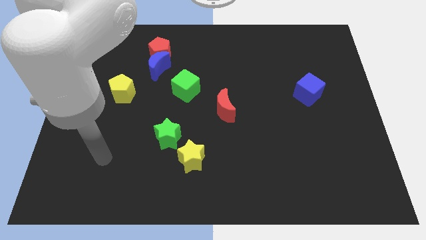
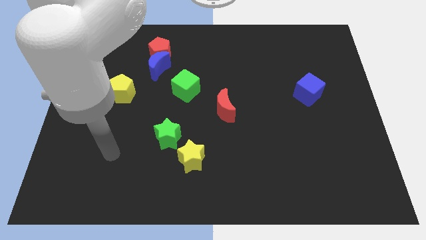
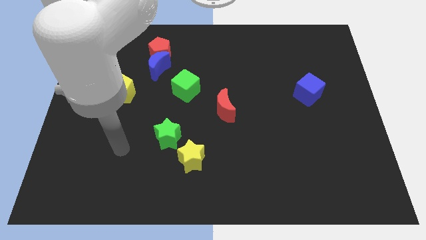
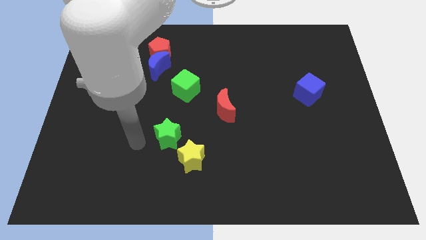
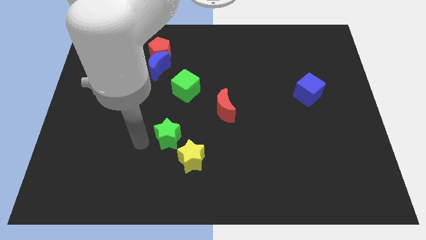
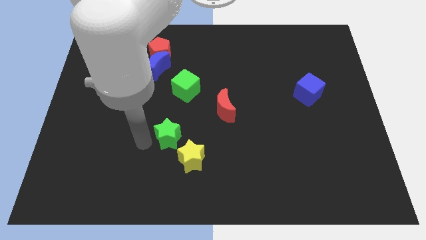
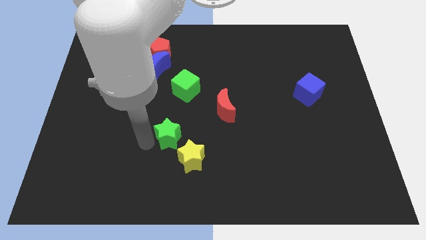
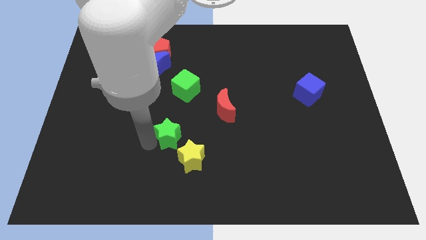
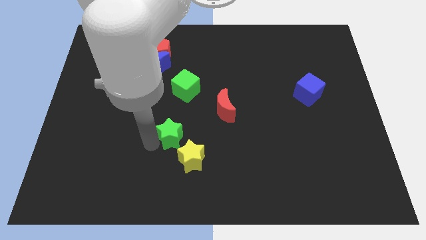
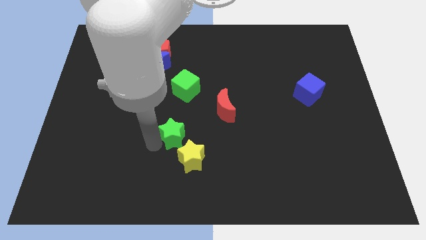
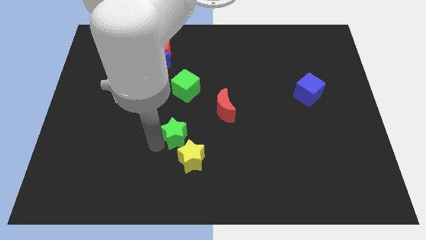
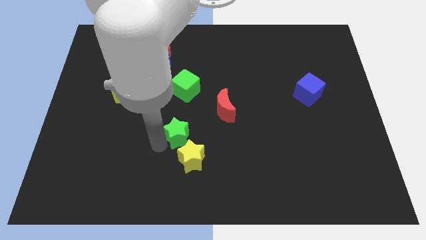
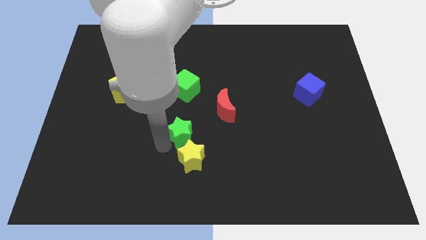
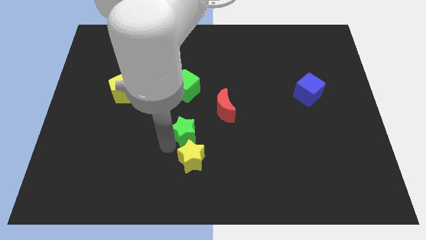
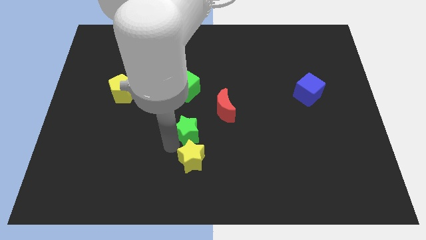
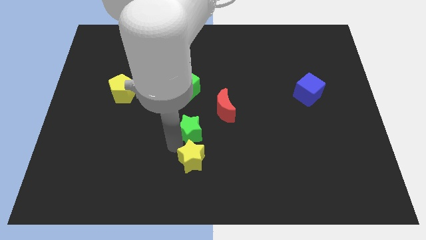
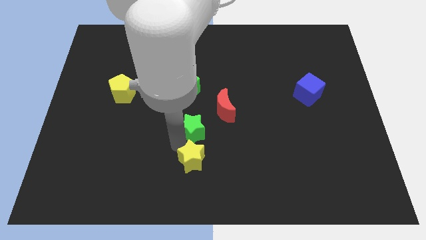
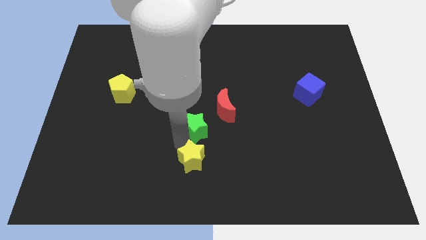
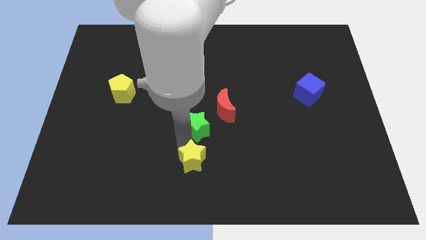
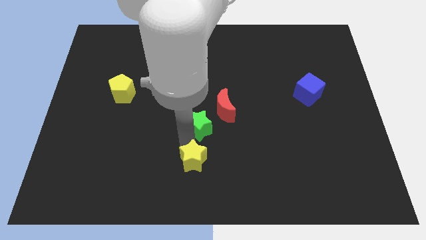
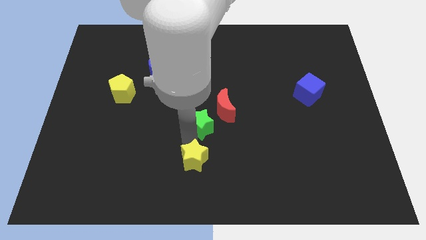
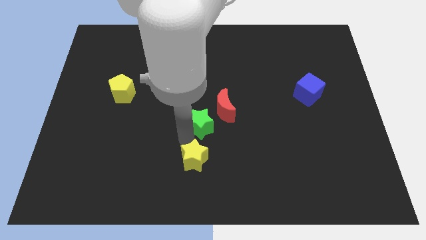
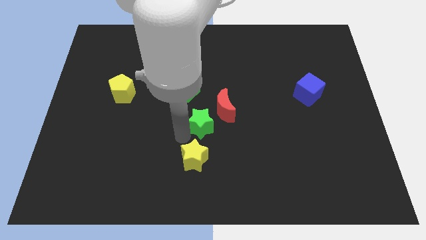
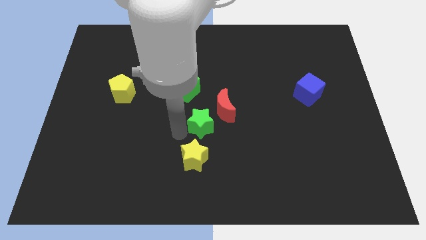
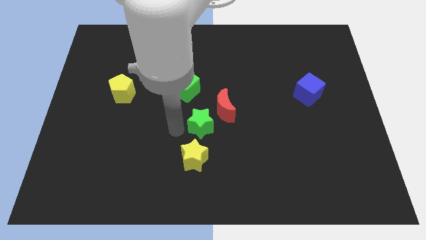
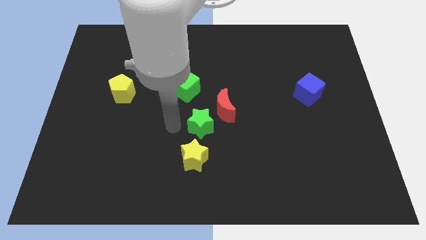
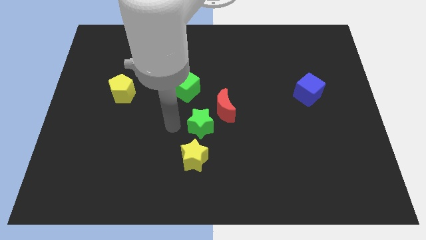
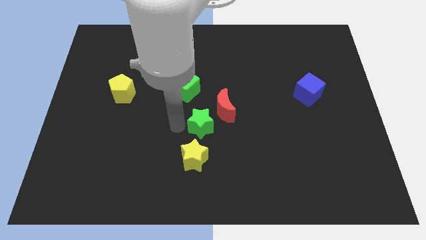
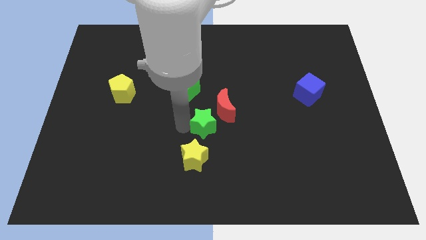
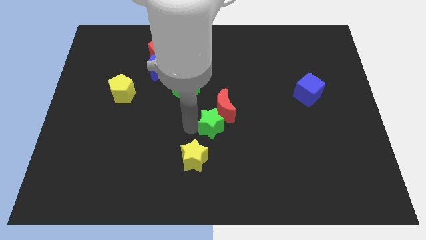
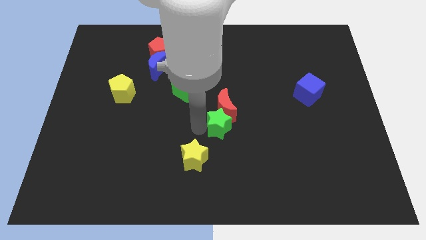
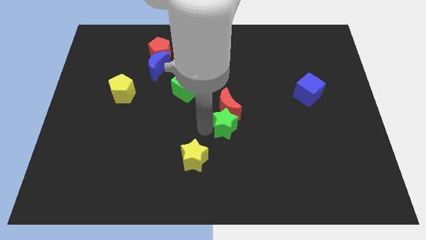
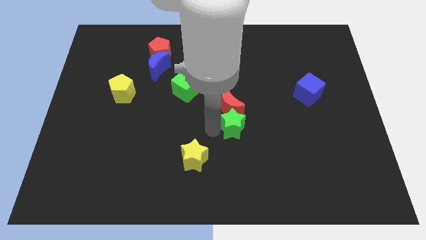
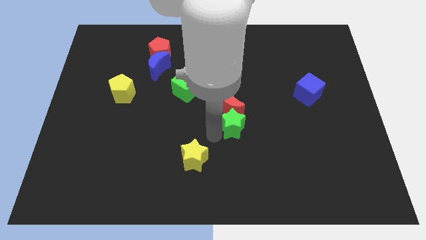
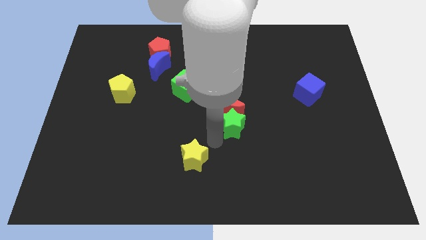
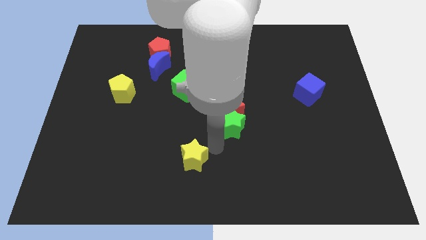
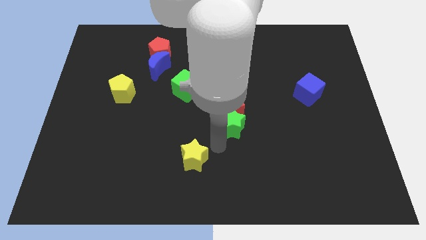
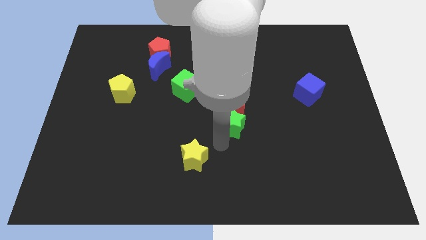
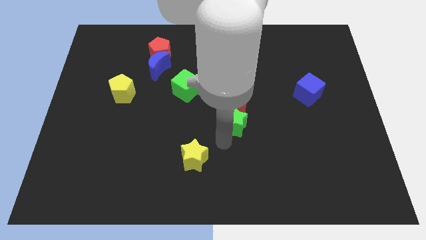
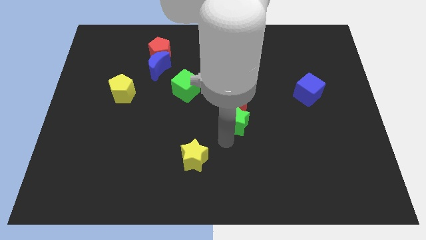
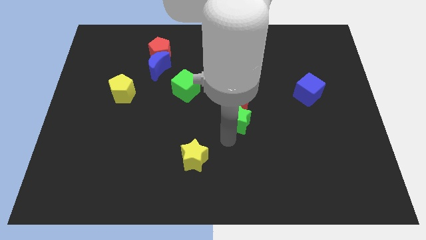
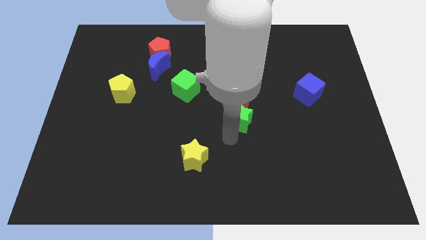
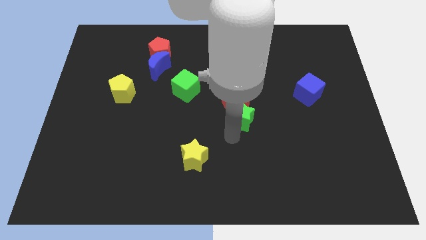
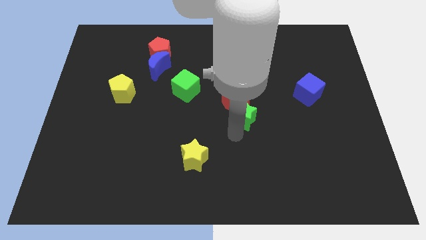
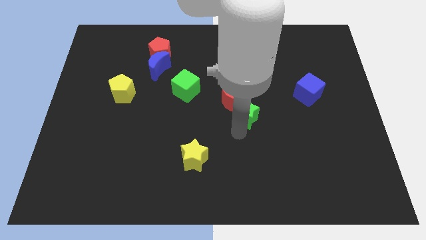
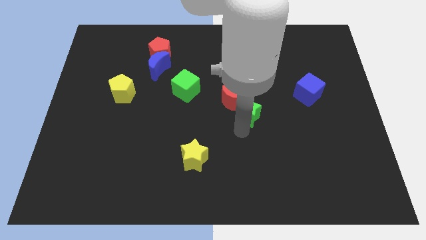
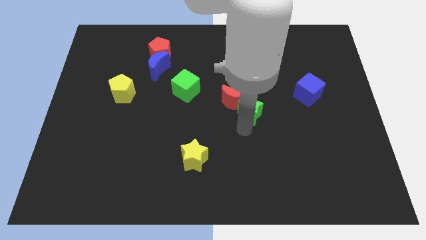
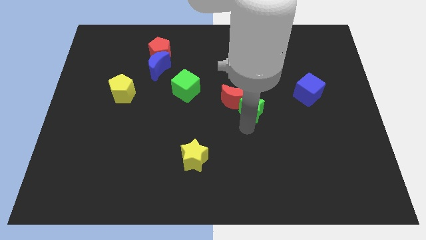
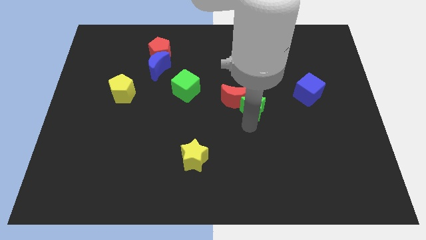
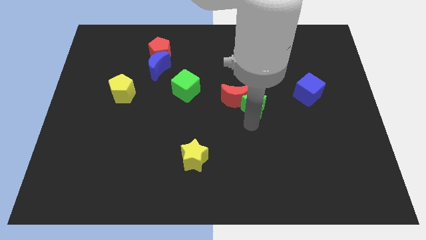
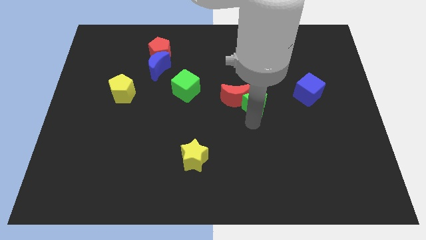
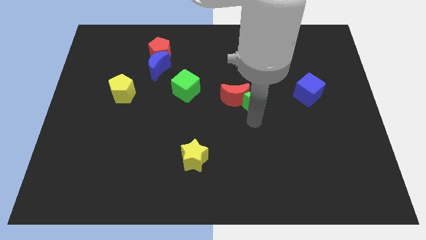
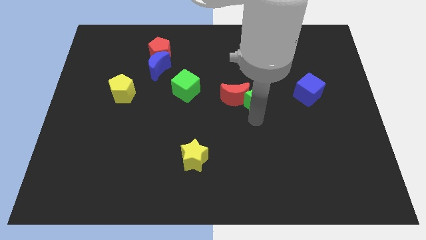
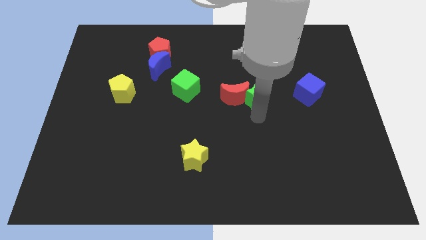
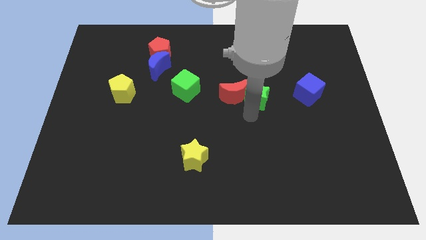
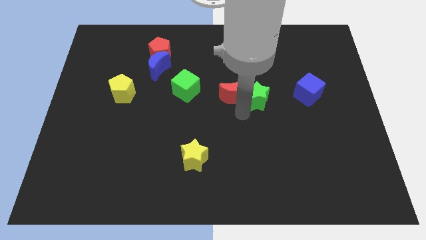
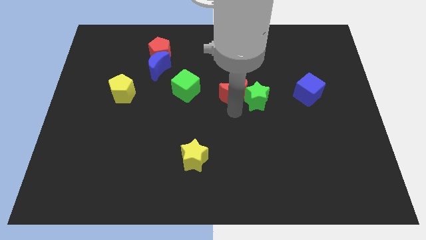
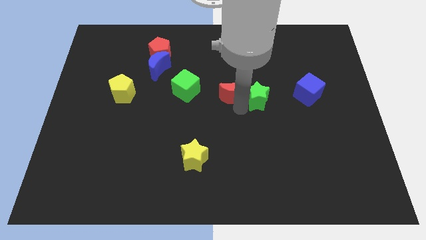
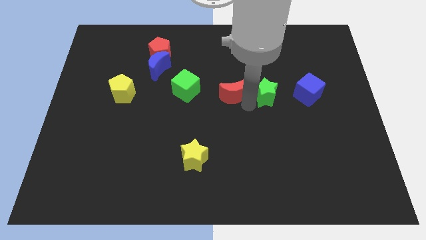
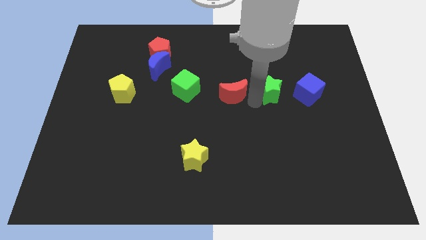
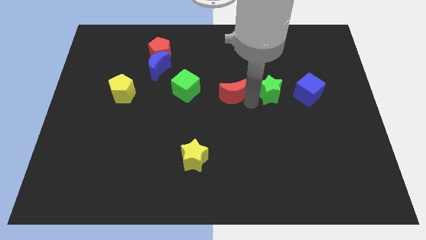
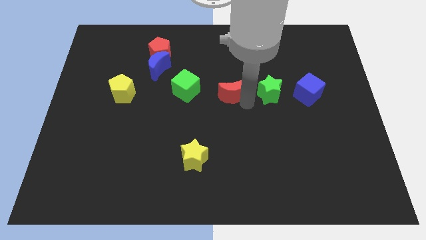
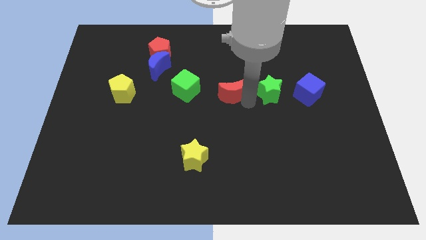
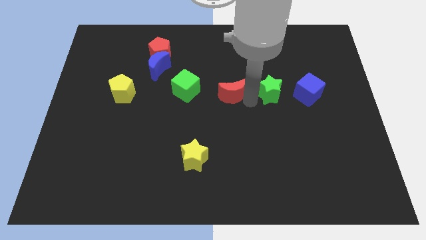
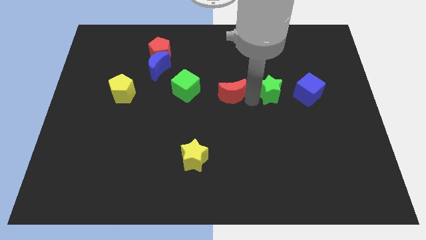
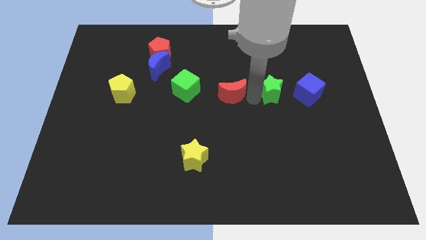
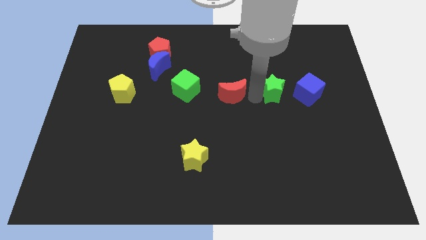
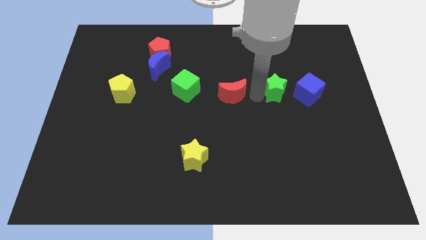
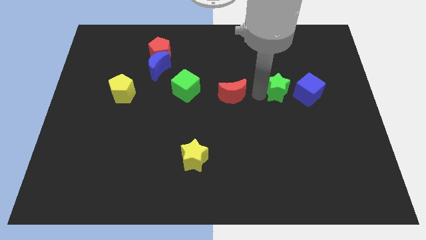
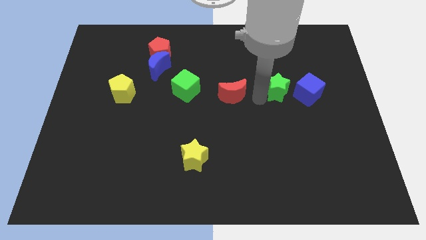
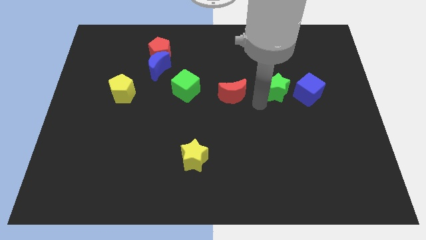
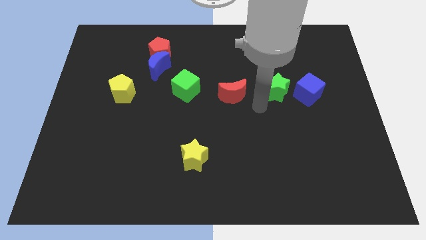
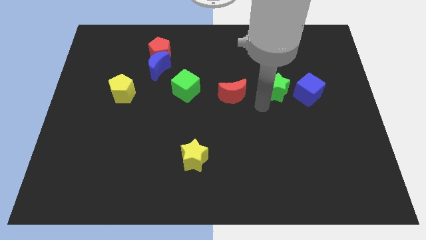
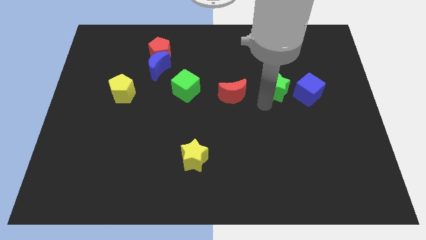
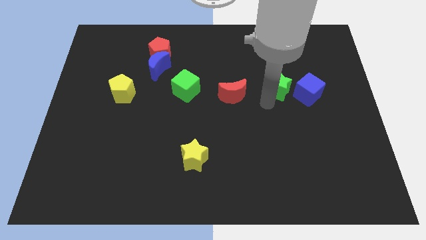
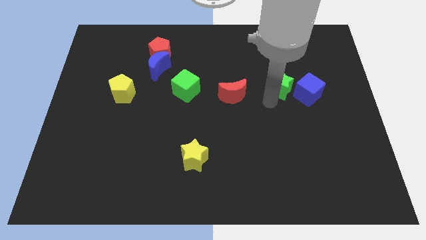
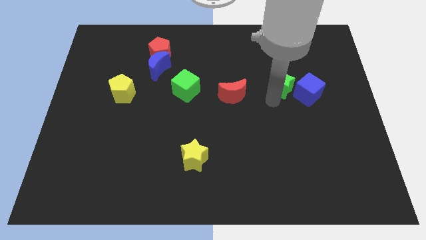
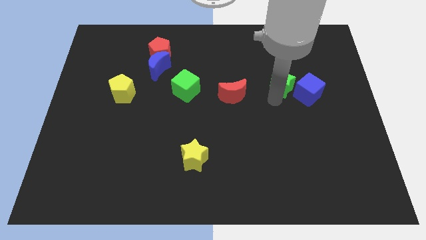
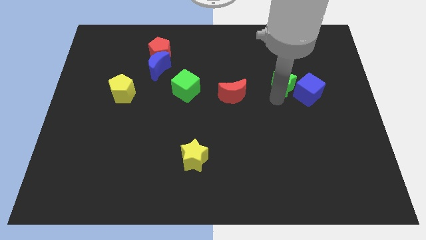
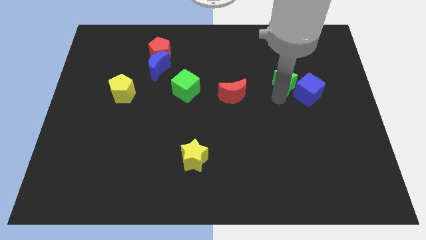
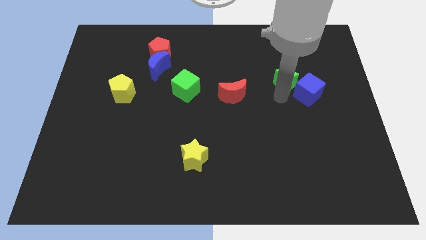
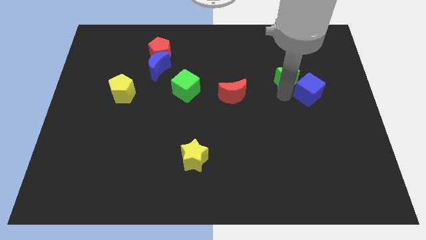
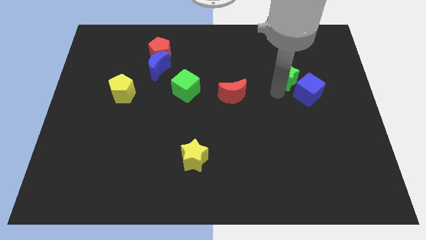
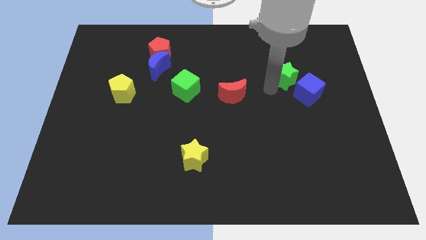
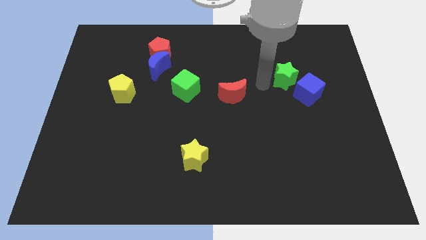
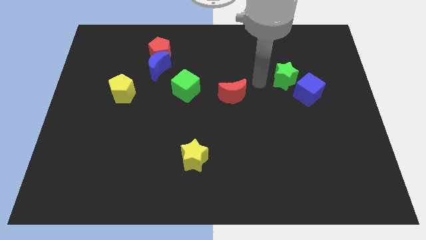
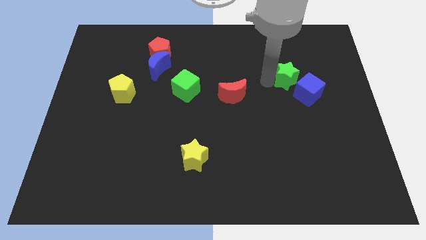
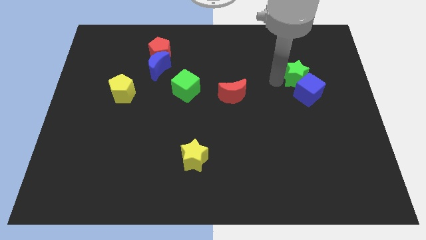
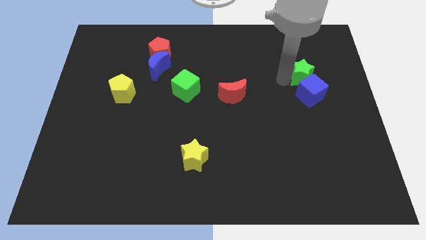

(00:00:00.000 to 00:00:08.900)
move the green star diagonally up and to the right of the blue cube
